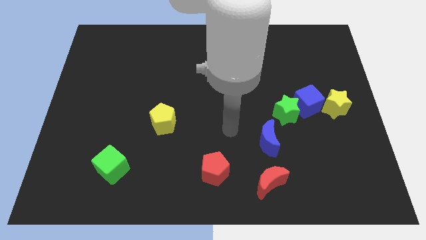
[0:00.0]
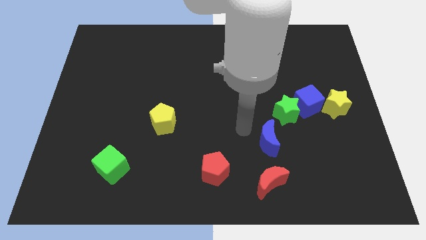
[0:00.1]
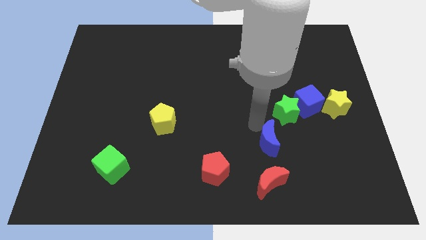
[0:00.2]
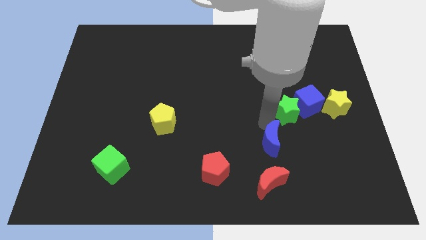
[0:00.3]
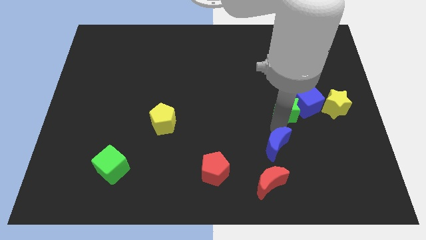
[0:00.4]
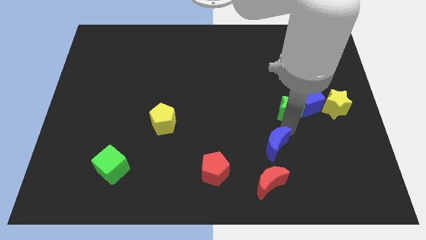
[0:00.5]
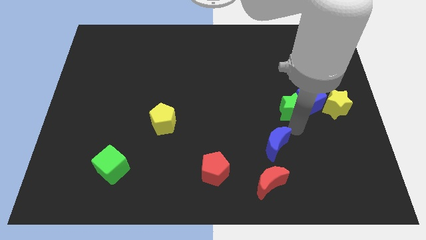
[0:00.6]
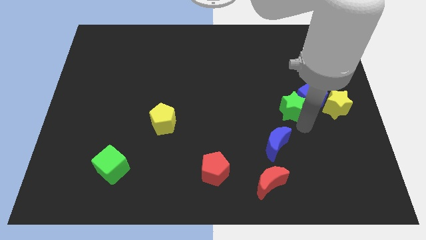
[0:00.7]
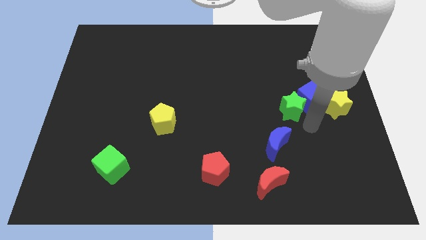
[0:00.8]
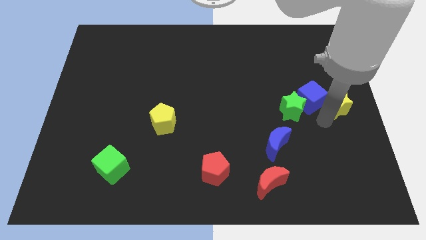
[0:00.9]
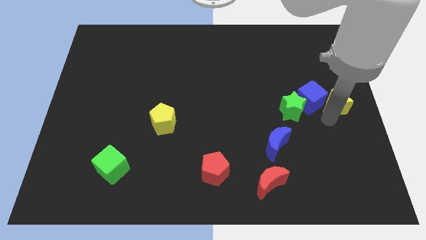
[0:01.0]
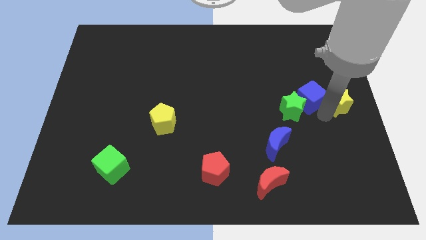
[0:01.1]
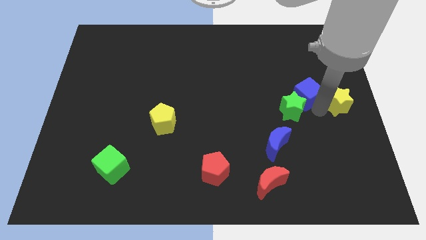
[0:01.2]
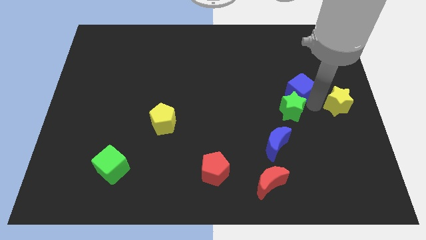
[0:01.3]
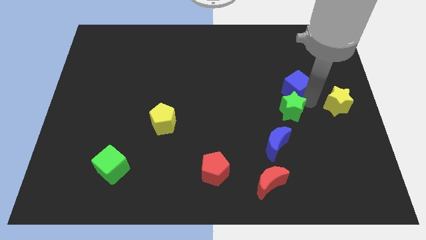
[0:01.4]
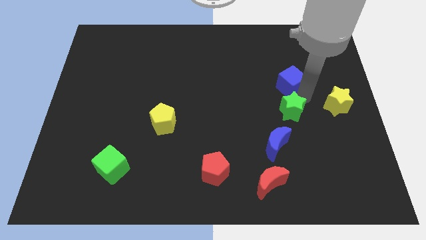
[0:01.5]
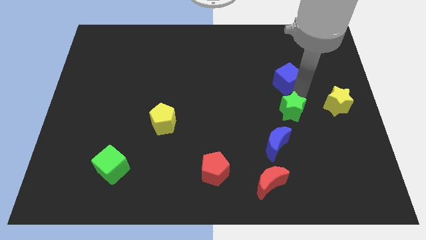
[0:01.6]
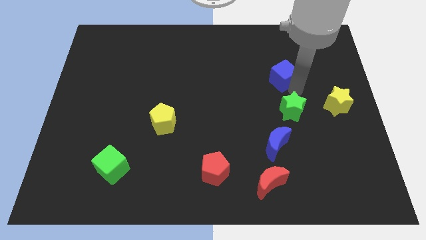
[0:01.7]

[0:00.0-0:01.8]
pull the blue cube apart from the green star and yellow star

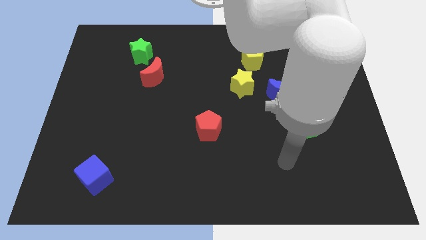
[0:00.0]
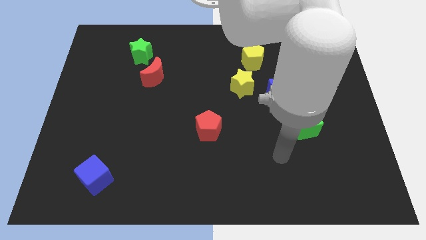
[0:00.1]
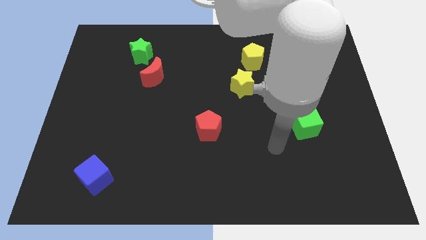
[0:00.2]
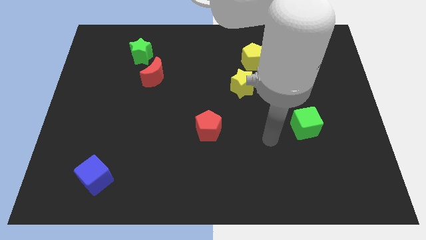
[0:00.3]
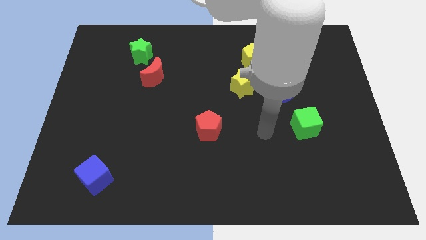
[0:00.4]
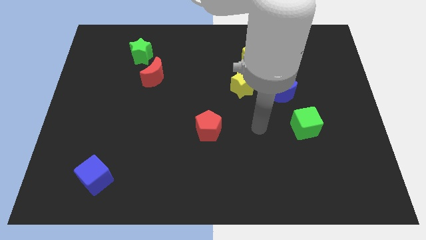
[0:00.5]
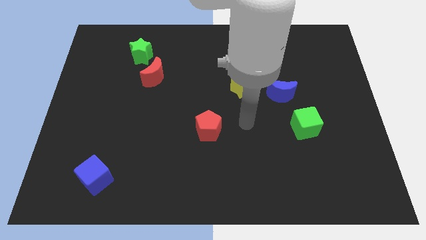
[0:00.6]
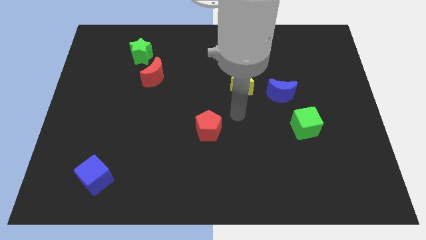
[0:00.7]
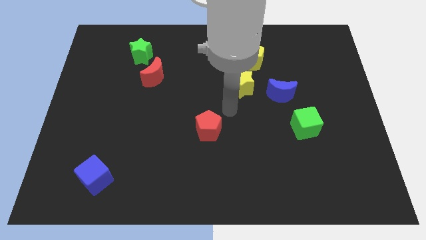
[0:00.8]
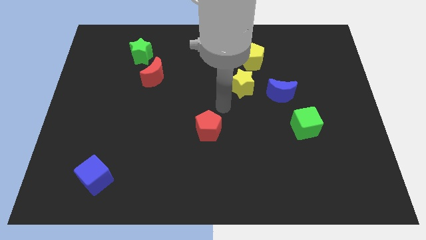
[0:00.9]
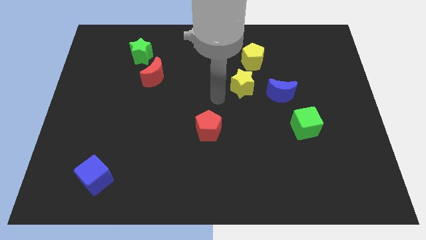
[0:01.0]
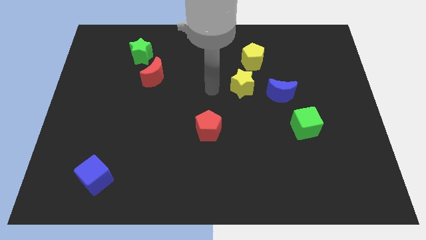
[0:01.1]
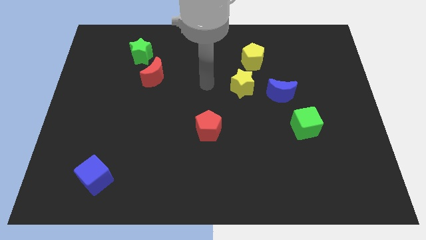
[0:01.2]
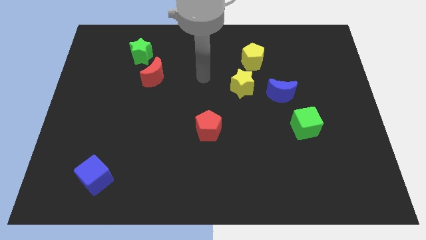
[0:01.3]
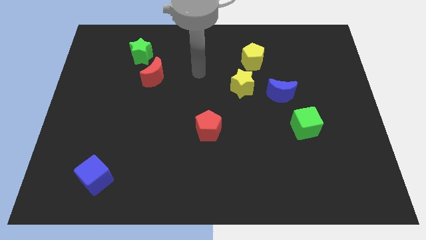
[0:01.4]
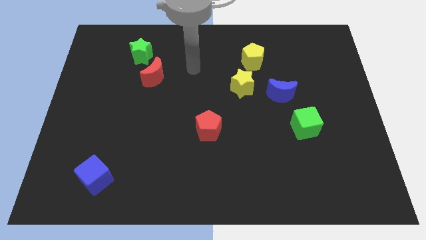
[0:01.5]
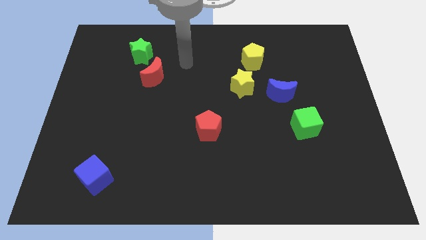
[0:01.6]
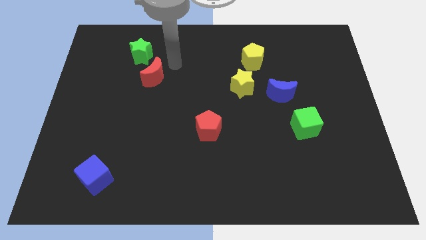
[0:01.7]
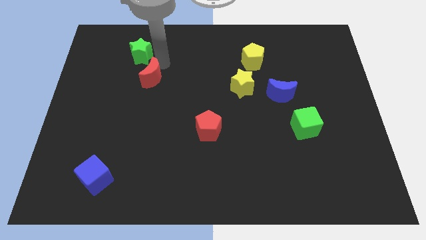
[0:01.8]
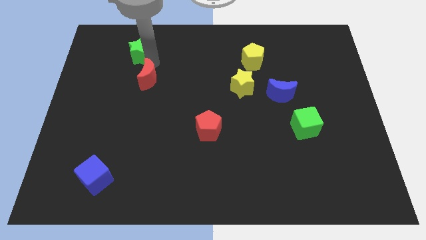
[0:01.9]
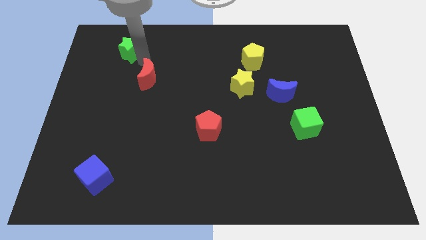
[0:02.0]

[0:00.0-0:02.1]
separate the red moon from the green star

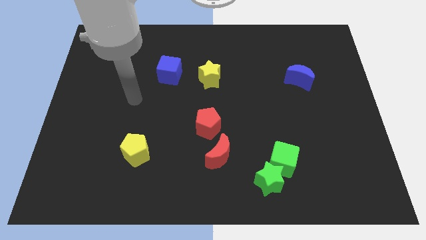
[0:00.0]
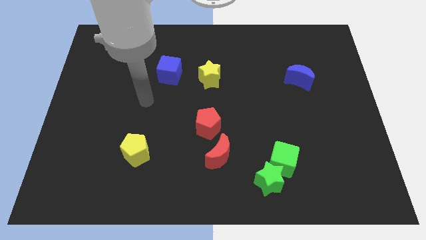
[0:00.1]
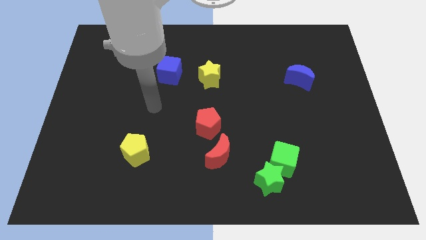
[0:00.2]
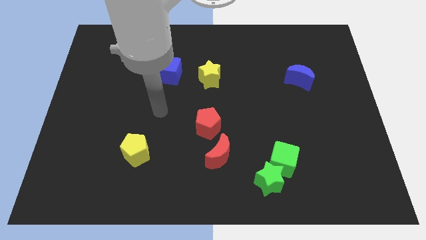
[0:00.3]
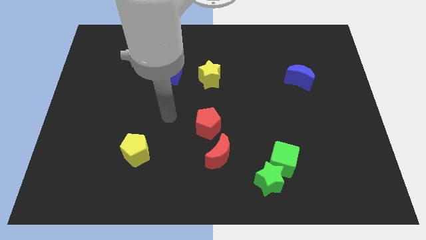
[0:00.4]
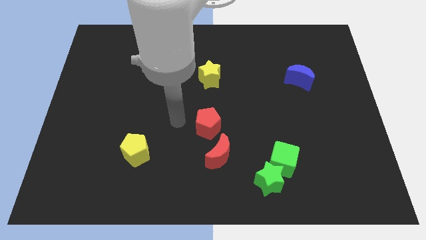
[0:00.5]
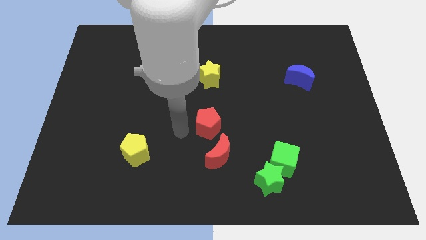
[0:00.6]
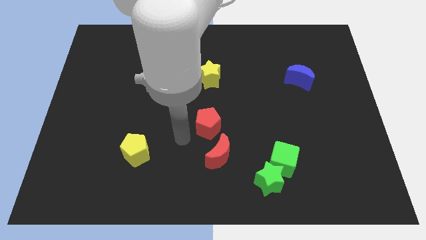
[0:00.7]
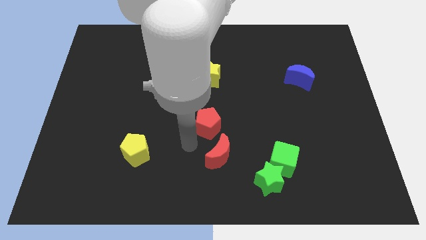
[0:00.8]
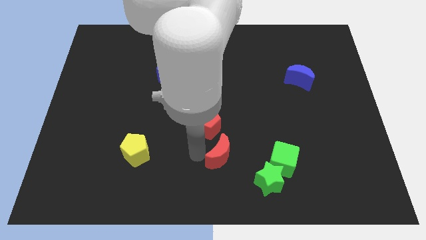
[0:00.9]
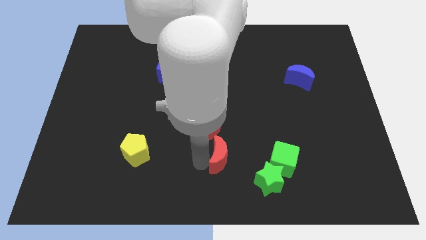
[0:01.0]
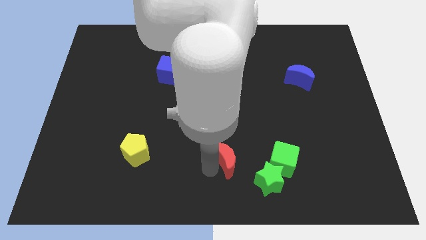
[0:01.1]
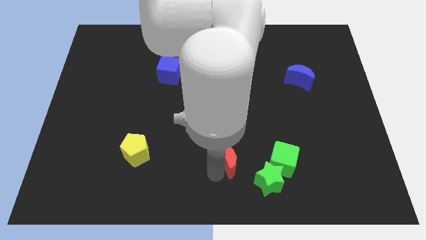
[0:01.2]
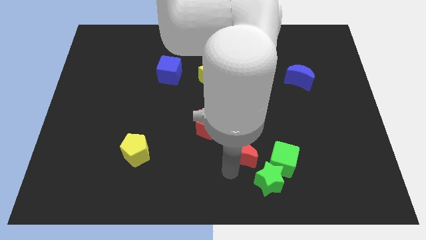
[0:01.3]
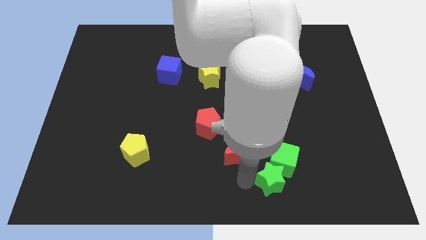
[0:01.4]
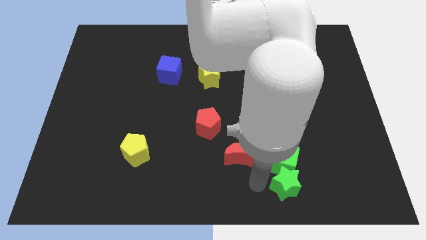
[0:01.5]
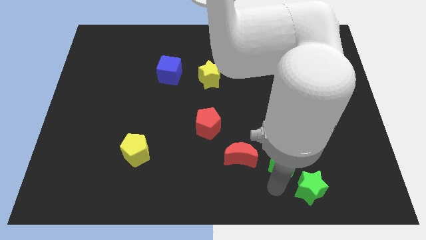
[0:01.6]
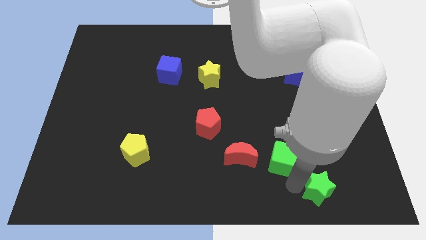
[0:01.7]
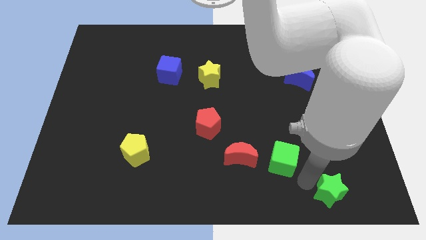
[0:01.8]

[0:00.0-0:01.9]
pull the green cube apart from the green star

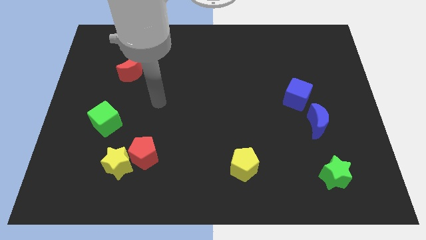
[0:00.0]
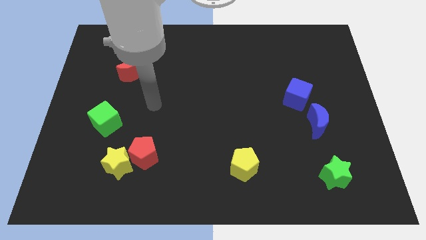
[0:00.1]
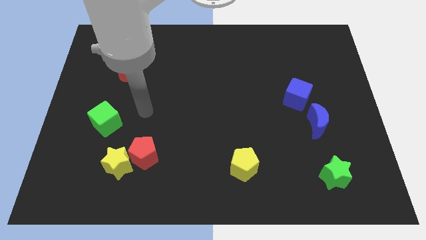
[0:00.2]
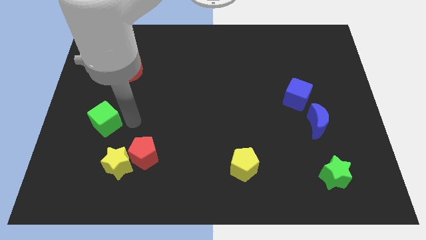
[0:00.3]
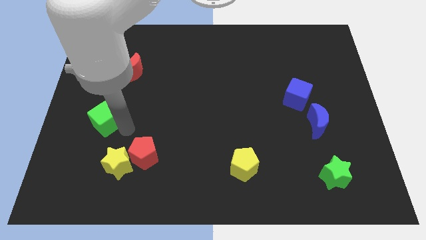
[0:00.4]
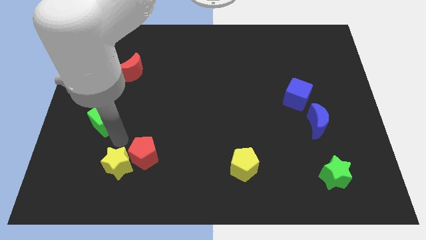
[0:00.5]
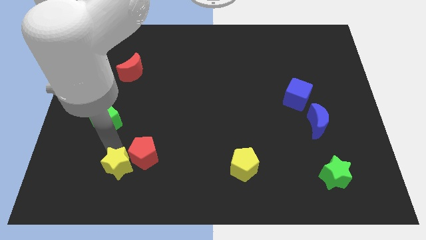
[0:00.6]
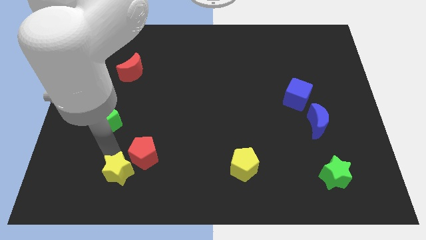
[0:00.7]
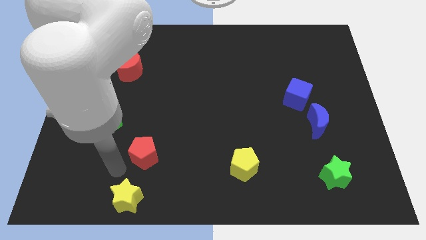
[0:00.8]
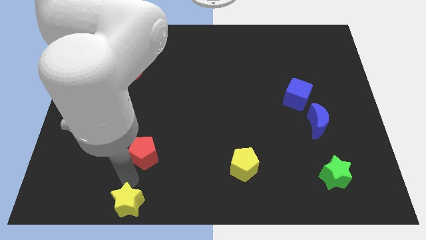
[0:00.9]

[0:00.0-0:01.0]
pull the red pentagon apart from the yellow star

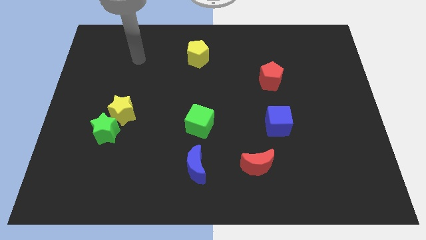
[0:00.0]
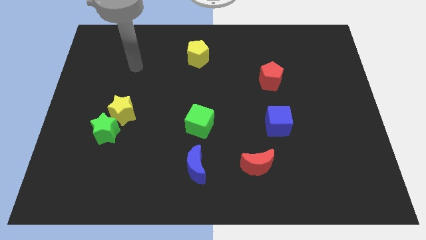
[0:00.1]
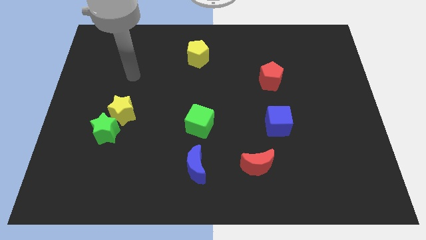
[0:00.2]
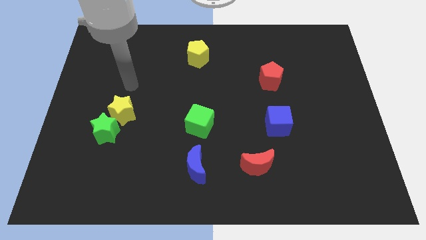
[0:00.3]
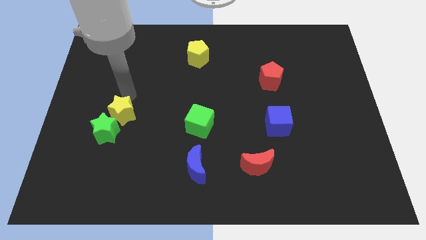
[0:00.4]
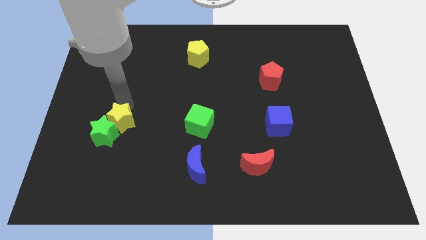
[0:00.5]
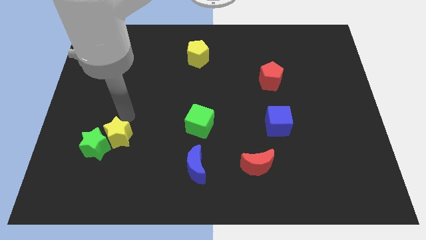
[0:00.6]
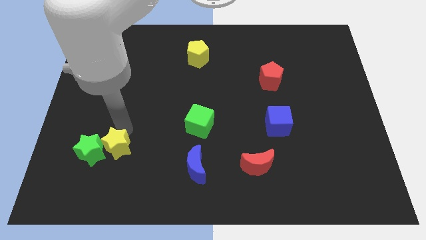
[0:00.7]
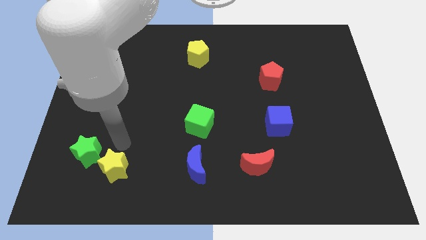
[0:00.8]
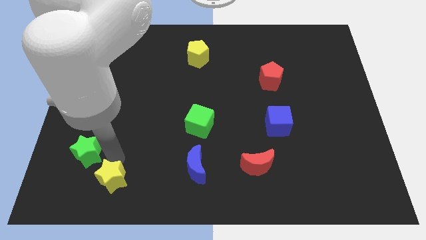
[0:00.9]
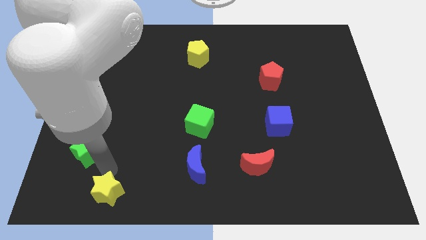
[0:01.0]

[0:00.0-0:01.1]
separate the green star from the yellow star

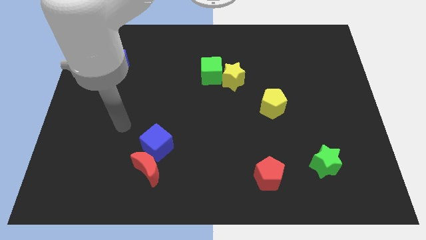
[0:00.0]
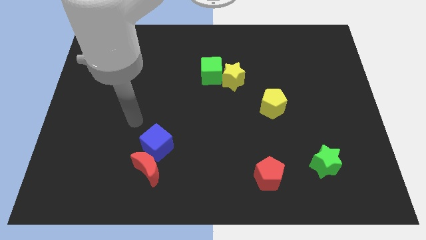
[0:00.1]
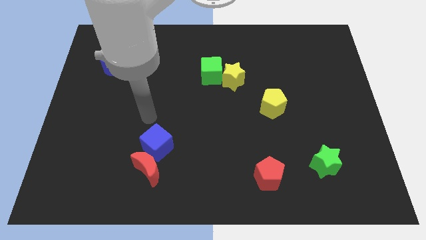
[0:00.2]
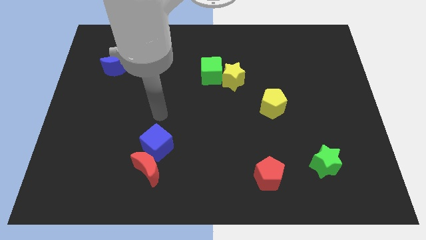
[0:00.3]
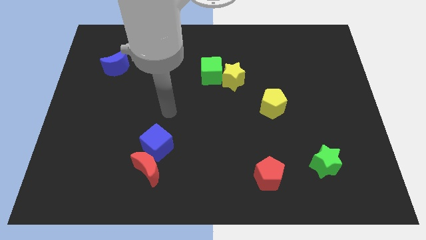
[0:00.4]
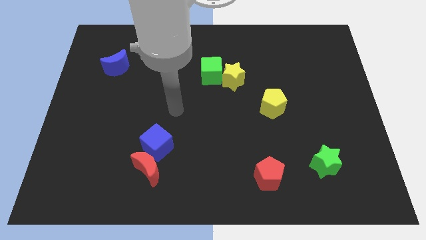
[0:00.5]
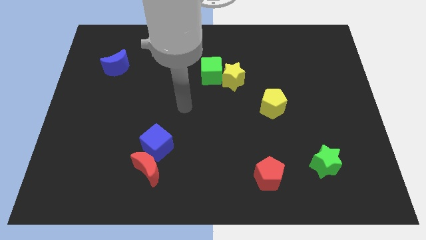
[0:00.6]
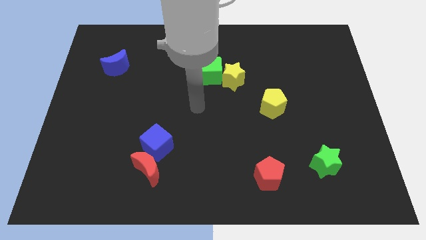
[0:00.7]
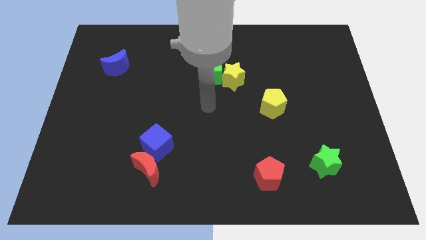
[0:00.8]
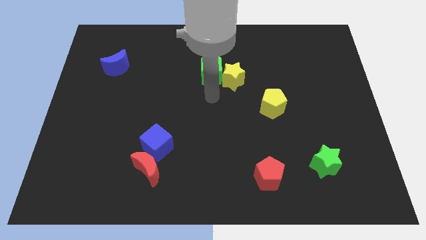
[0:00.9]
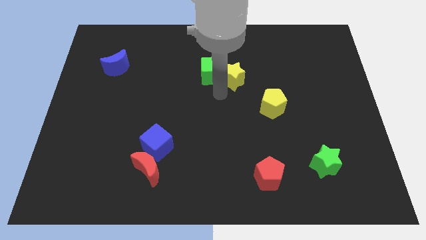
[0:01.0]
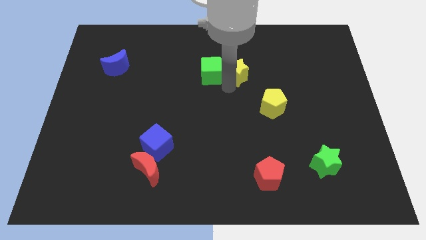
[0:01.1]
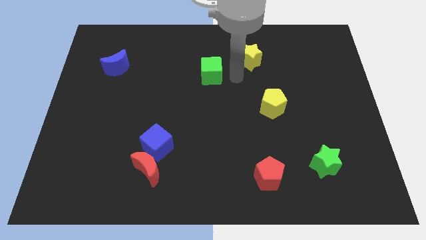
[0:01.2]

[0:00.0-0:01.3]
separate the green cube from the yellow star
